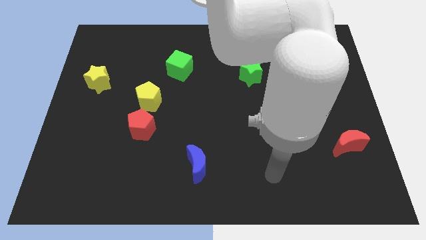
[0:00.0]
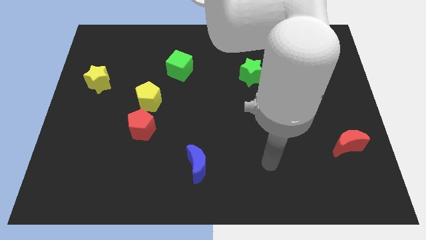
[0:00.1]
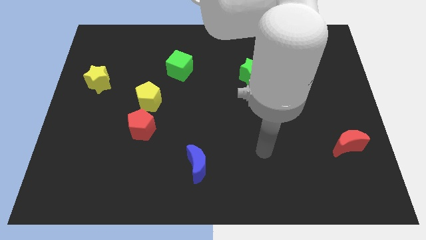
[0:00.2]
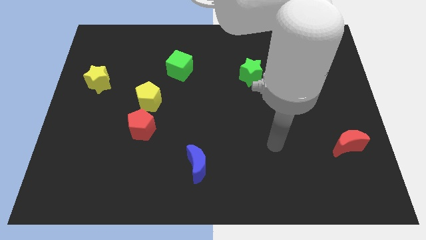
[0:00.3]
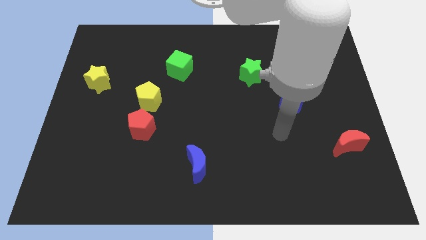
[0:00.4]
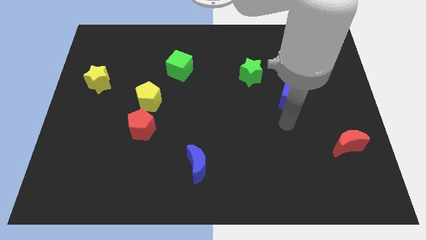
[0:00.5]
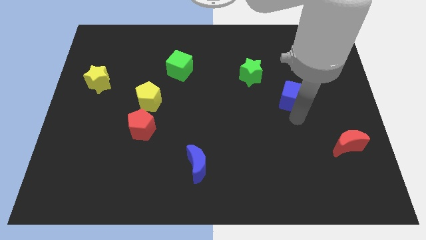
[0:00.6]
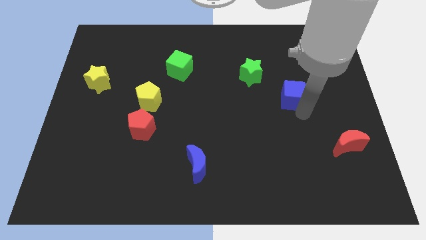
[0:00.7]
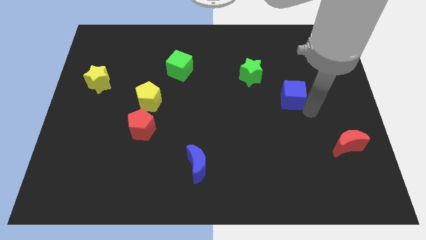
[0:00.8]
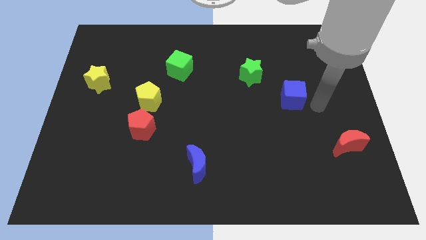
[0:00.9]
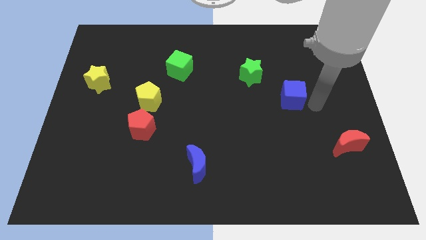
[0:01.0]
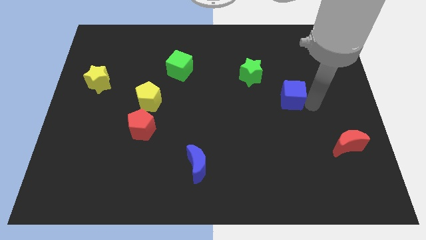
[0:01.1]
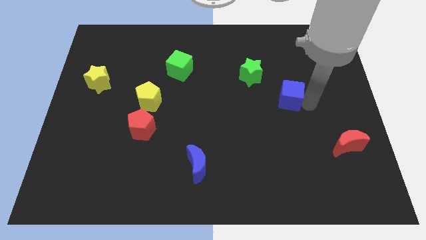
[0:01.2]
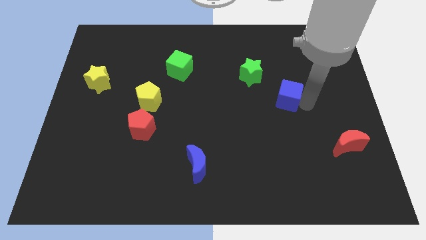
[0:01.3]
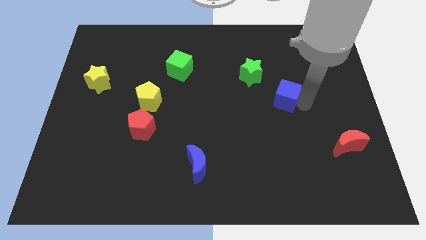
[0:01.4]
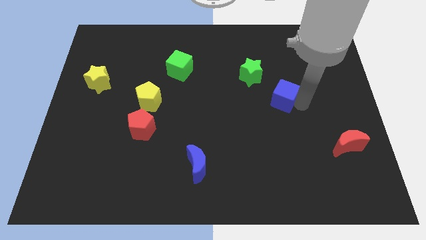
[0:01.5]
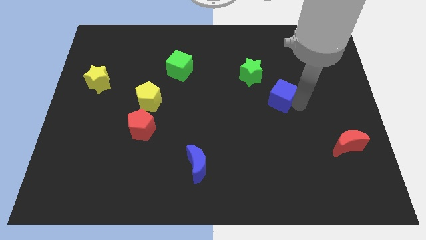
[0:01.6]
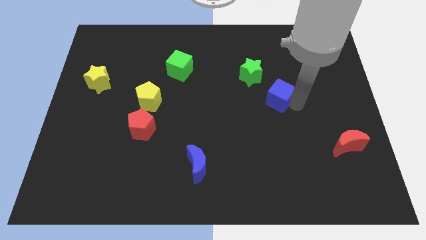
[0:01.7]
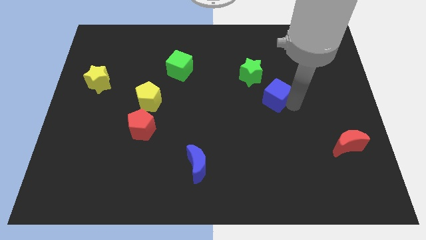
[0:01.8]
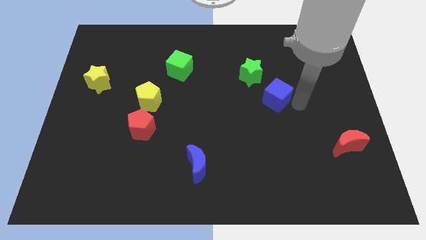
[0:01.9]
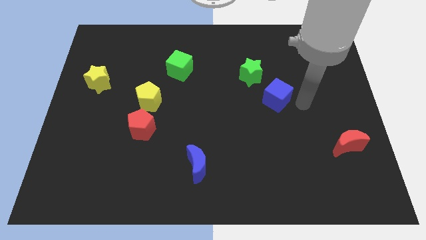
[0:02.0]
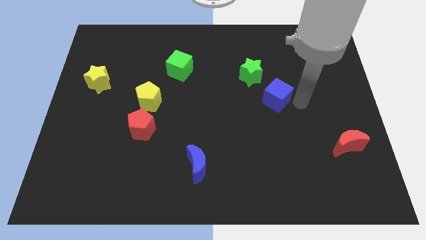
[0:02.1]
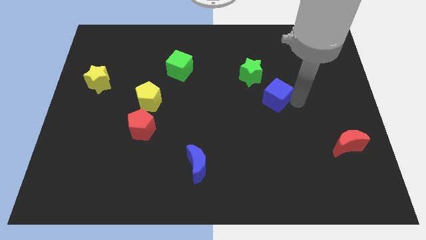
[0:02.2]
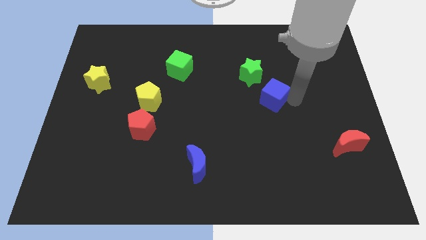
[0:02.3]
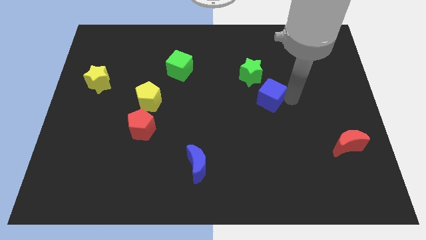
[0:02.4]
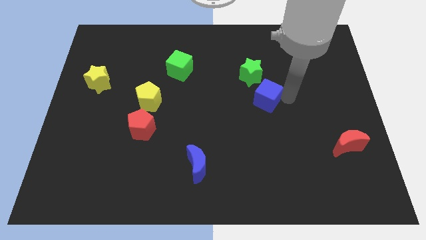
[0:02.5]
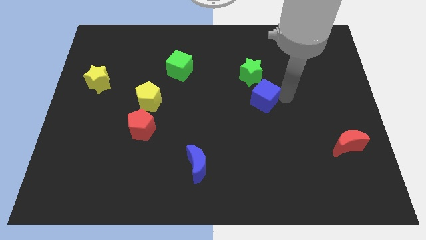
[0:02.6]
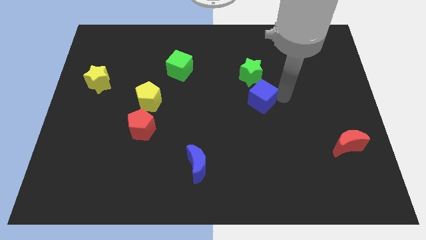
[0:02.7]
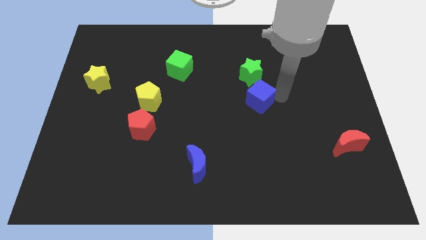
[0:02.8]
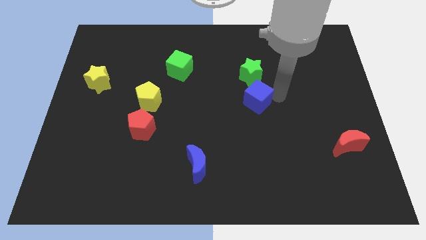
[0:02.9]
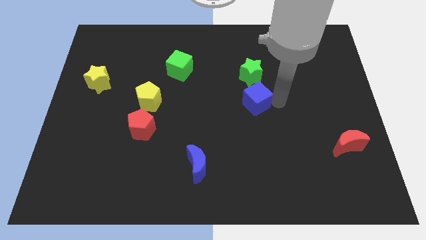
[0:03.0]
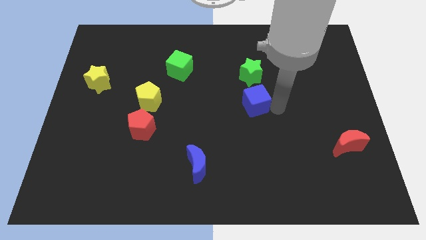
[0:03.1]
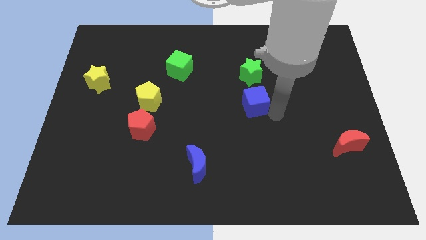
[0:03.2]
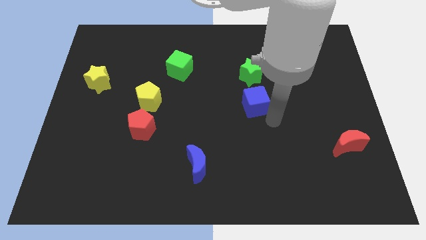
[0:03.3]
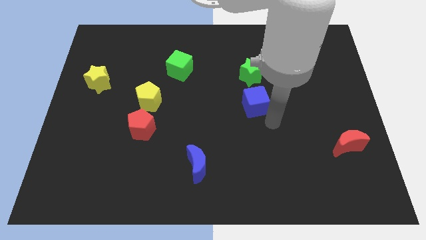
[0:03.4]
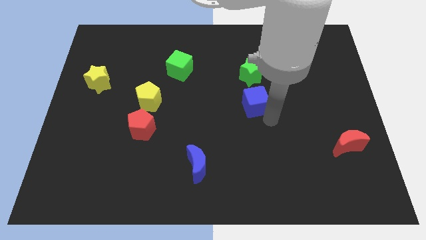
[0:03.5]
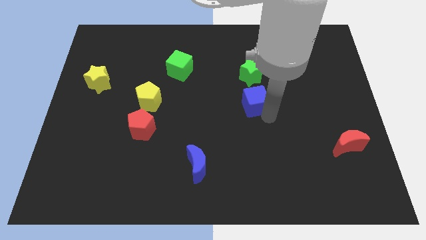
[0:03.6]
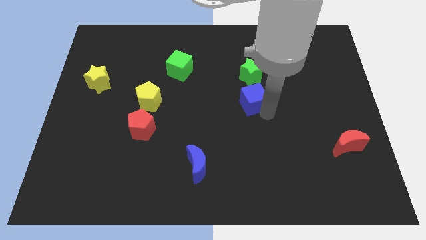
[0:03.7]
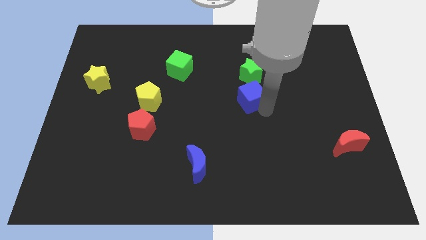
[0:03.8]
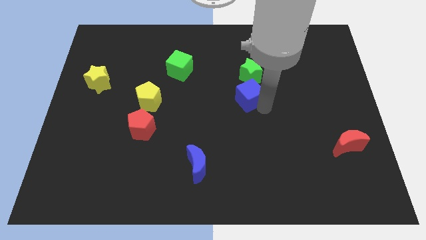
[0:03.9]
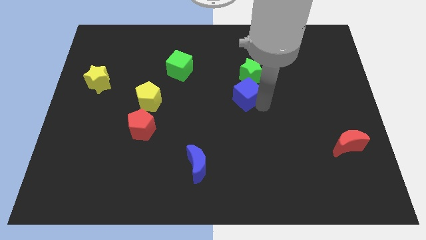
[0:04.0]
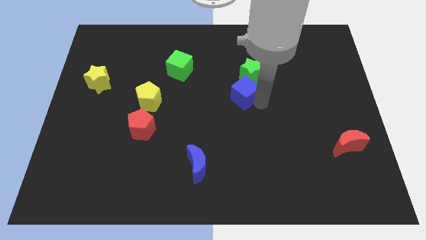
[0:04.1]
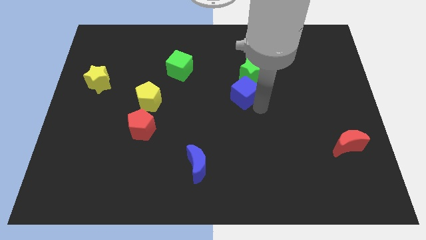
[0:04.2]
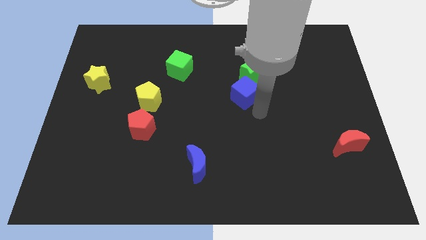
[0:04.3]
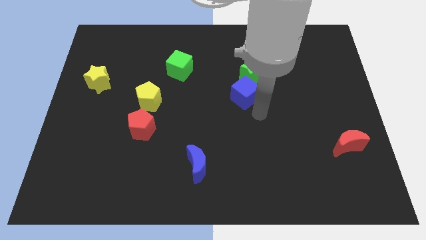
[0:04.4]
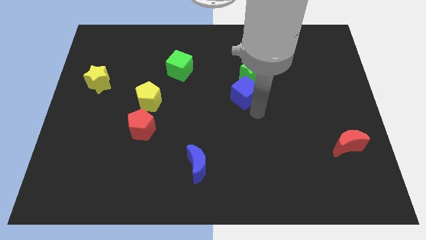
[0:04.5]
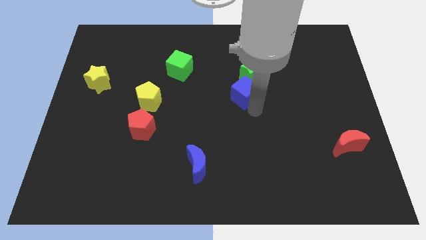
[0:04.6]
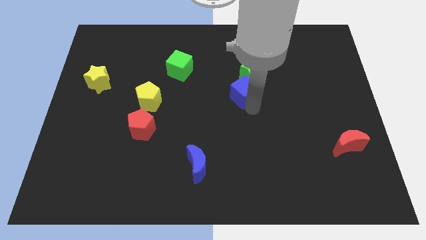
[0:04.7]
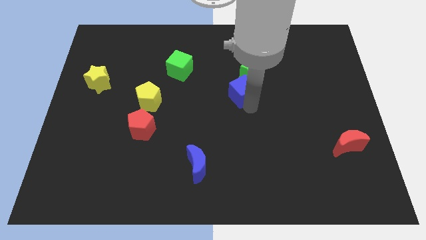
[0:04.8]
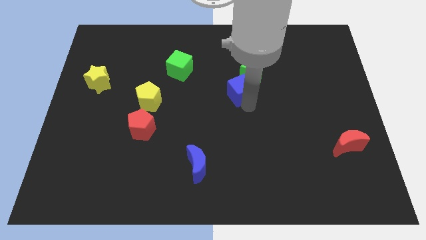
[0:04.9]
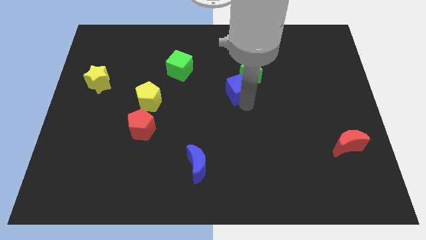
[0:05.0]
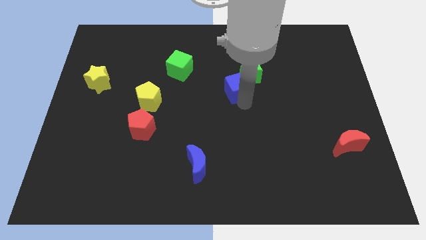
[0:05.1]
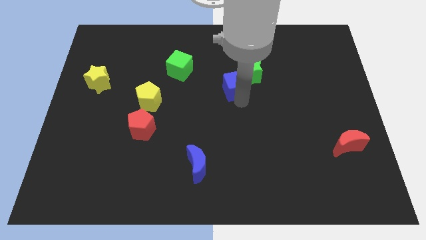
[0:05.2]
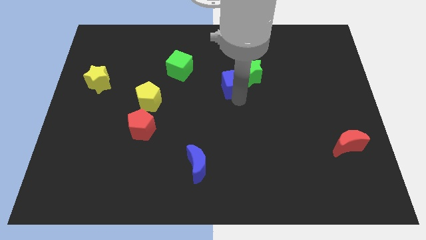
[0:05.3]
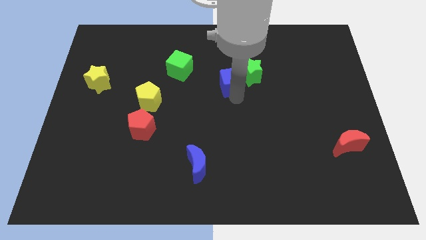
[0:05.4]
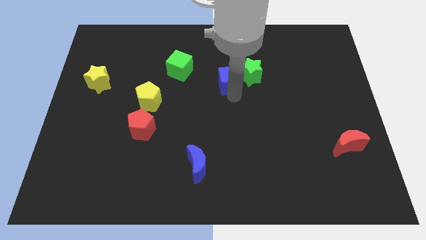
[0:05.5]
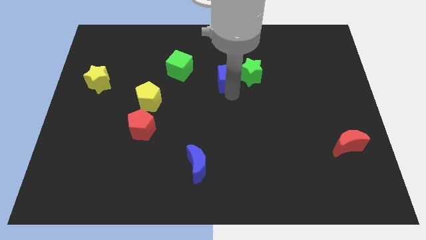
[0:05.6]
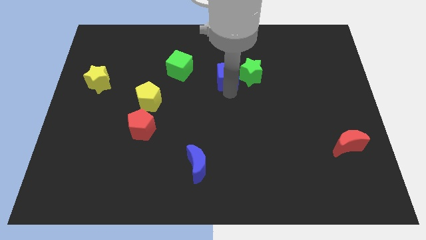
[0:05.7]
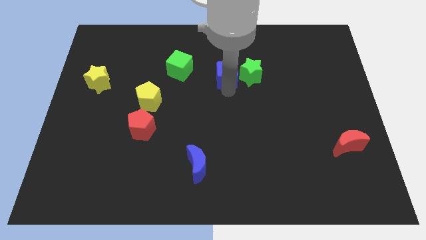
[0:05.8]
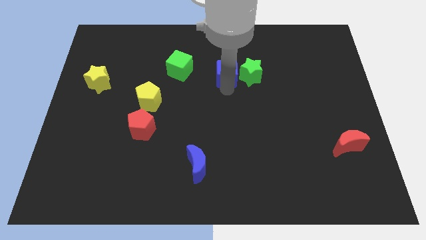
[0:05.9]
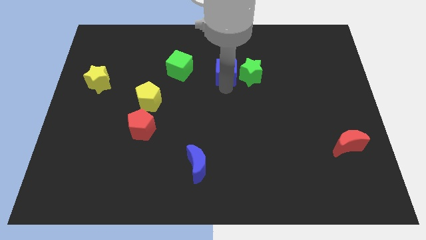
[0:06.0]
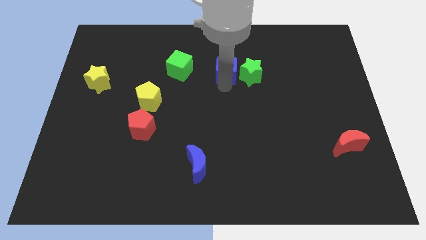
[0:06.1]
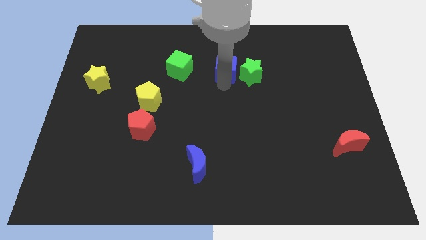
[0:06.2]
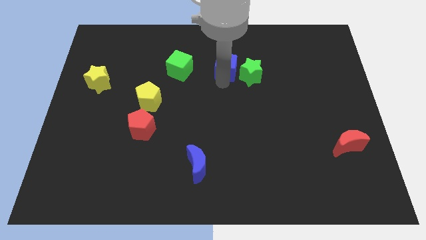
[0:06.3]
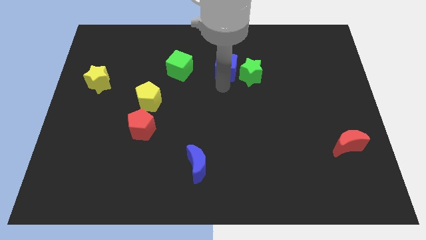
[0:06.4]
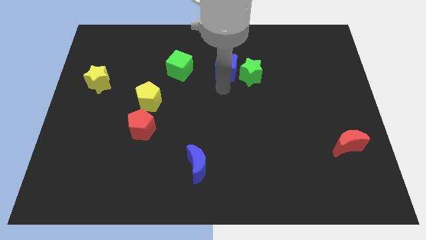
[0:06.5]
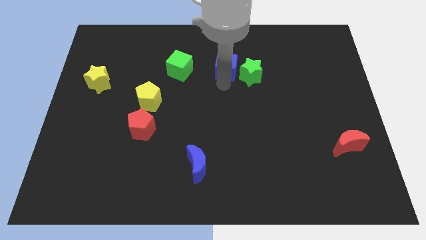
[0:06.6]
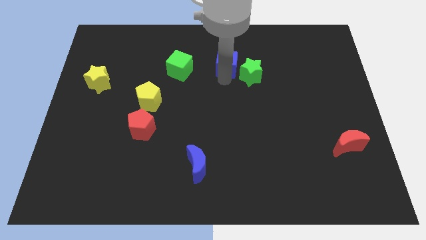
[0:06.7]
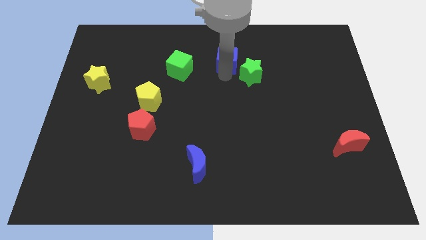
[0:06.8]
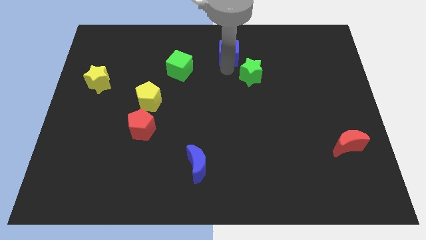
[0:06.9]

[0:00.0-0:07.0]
slide the blue cube to the towards your base
